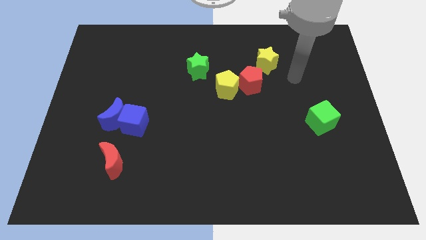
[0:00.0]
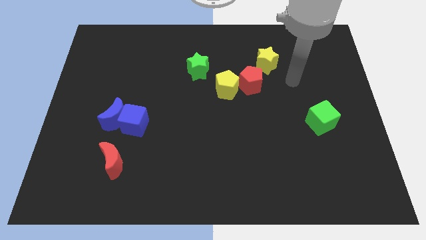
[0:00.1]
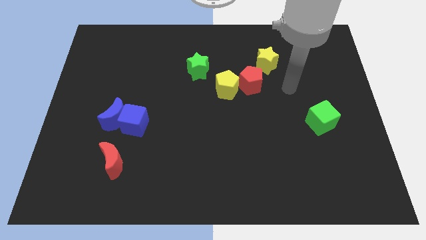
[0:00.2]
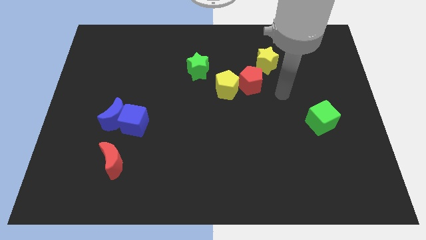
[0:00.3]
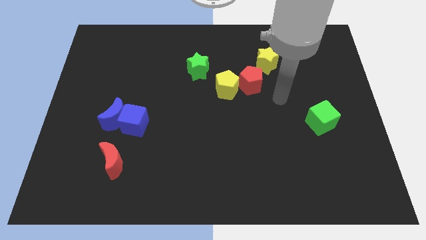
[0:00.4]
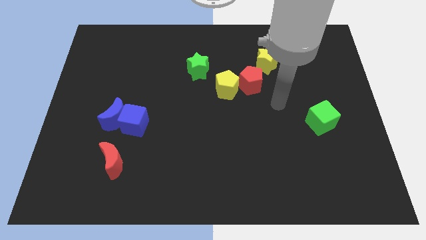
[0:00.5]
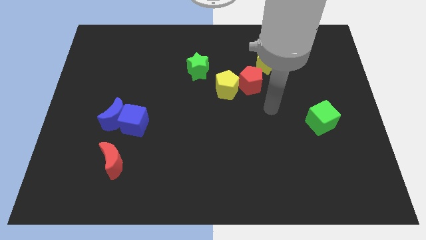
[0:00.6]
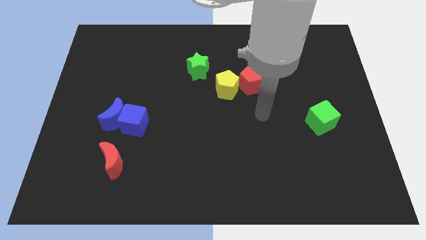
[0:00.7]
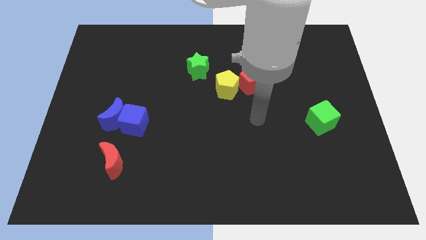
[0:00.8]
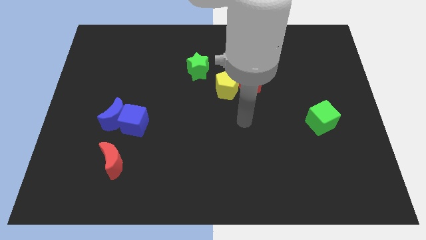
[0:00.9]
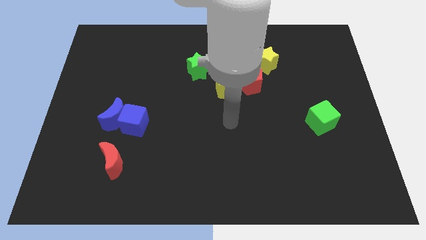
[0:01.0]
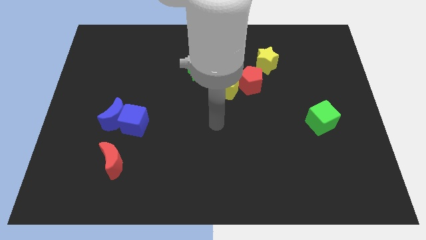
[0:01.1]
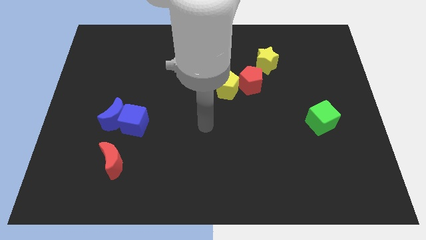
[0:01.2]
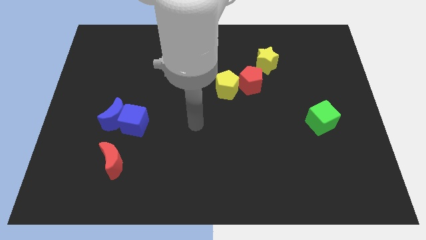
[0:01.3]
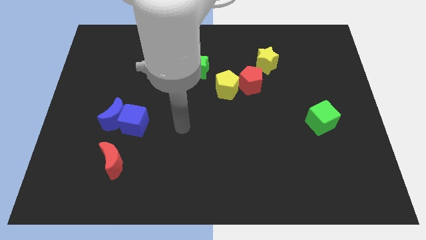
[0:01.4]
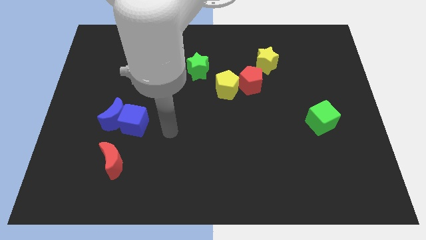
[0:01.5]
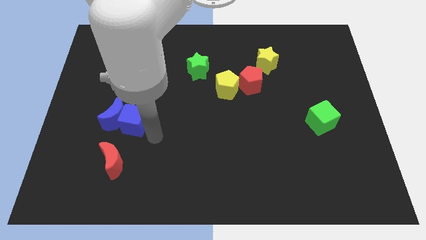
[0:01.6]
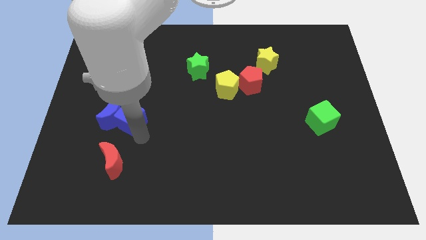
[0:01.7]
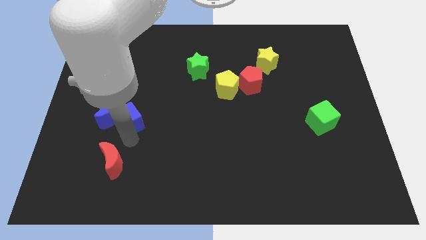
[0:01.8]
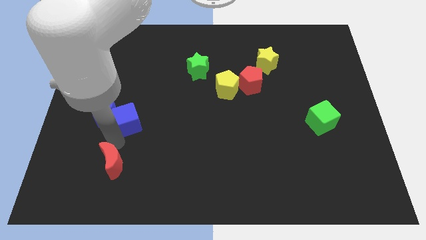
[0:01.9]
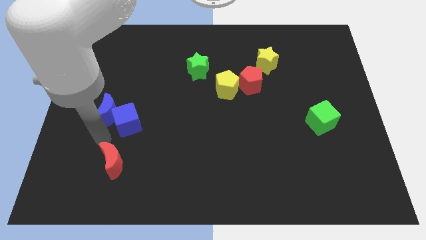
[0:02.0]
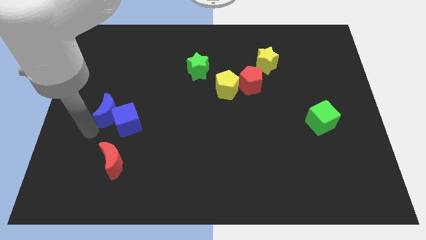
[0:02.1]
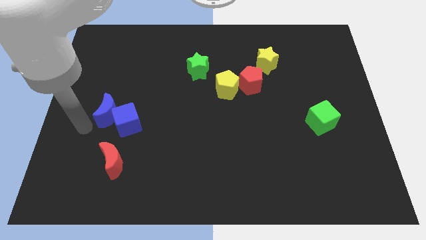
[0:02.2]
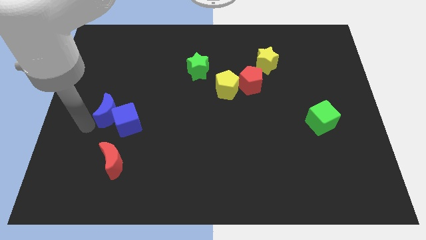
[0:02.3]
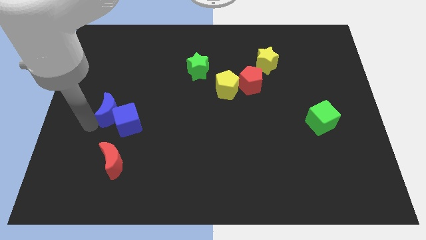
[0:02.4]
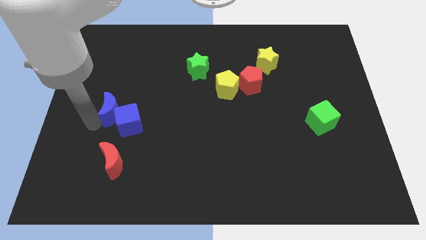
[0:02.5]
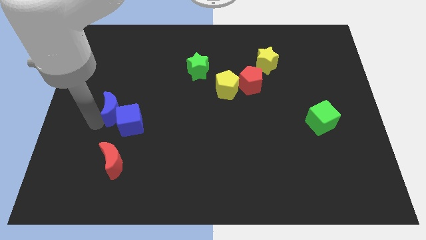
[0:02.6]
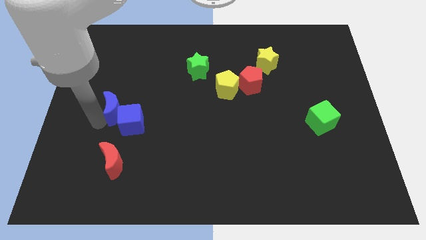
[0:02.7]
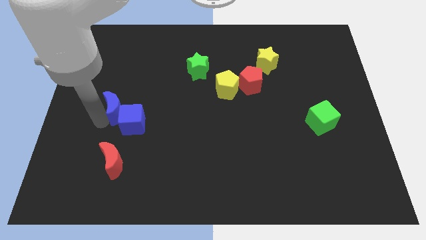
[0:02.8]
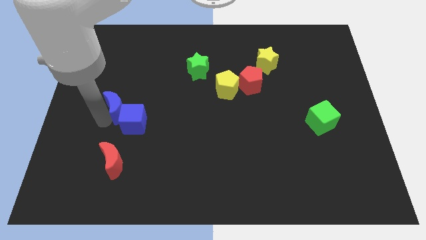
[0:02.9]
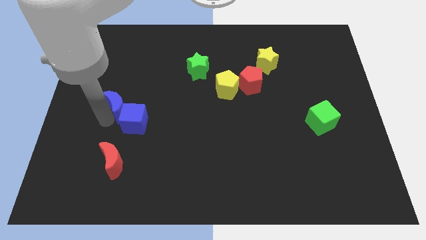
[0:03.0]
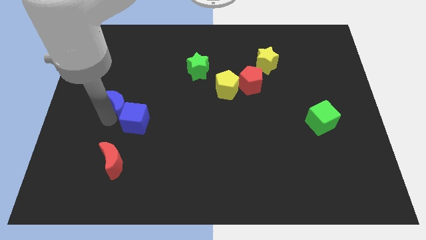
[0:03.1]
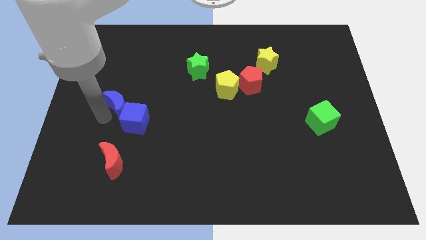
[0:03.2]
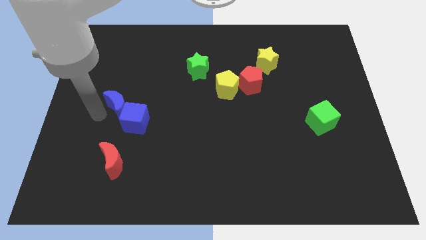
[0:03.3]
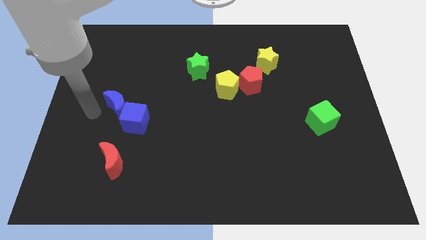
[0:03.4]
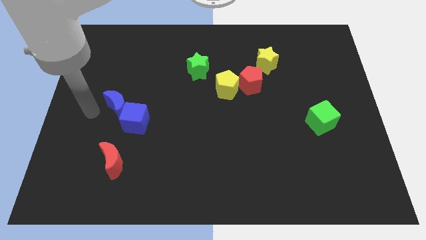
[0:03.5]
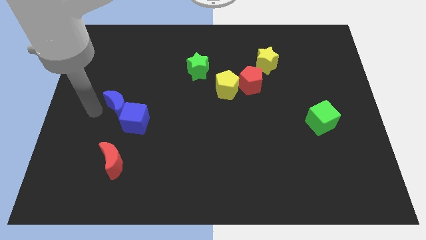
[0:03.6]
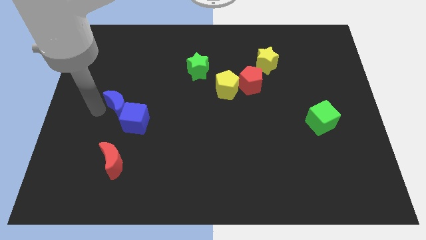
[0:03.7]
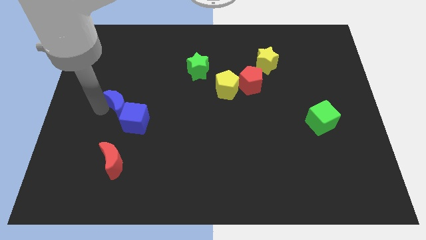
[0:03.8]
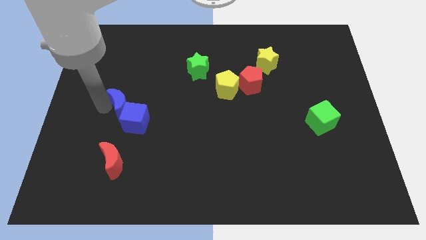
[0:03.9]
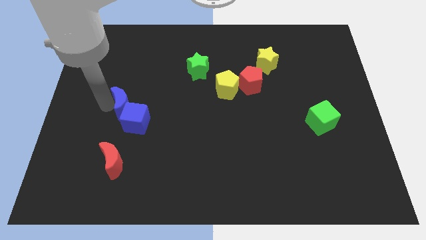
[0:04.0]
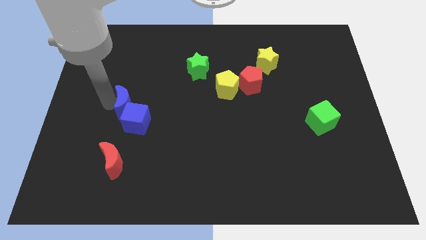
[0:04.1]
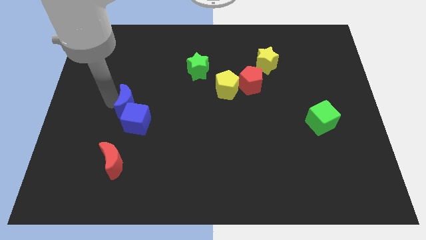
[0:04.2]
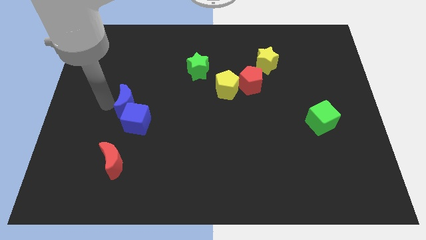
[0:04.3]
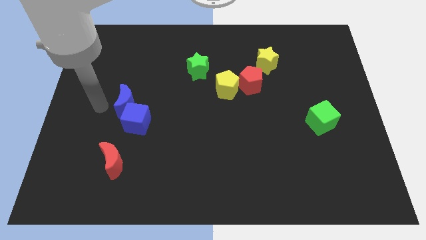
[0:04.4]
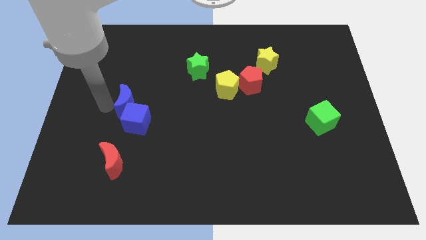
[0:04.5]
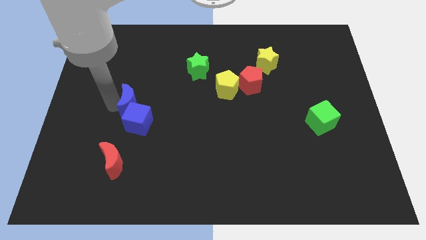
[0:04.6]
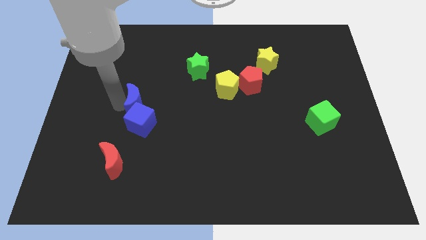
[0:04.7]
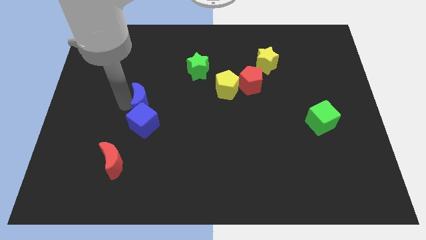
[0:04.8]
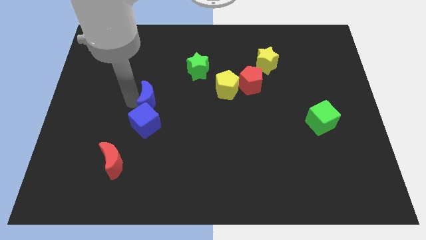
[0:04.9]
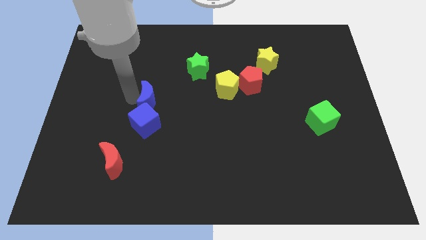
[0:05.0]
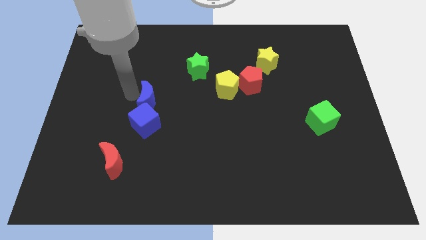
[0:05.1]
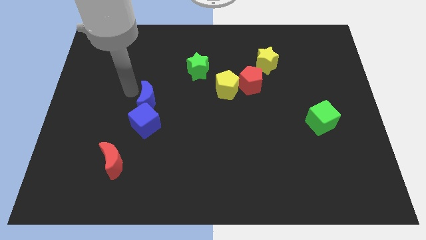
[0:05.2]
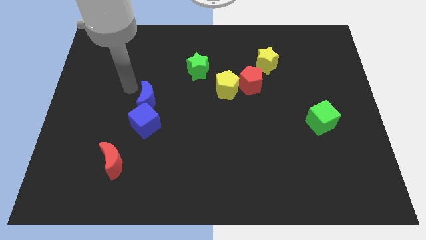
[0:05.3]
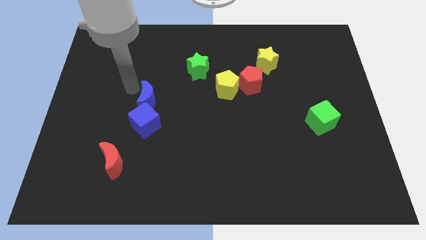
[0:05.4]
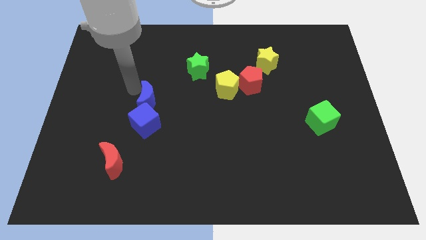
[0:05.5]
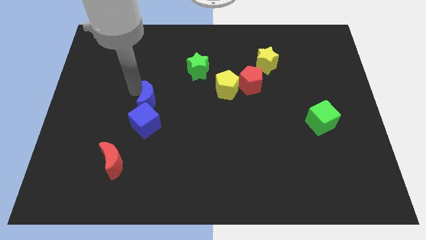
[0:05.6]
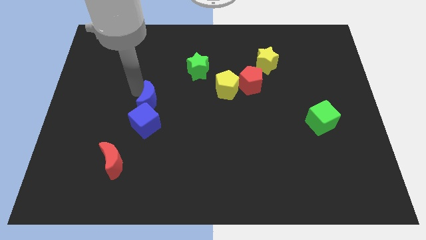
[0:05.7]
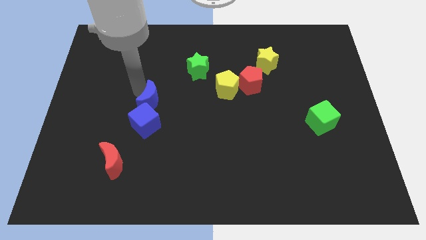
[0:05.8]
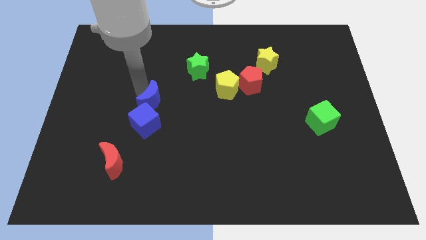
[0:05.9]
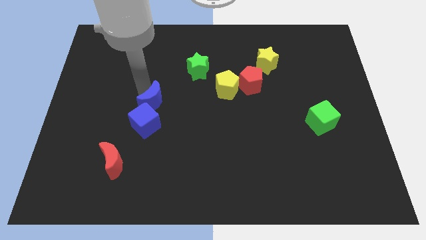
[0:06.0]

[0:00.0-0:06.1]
slide the blue moon to the right a little

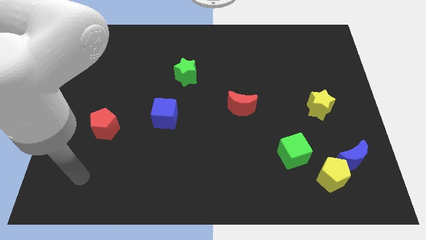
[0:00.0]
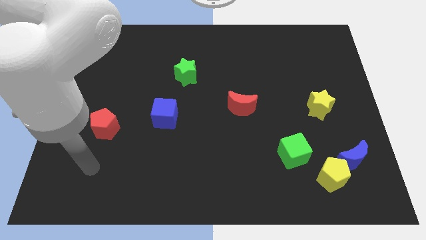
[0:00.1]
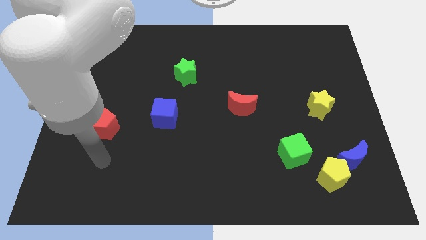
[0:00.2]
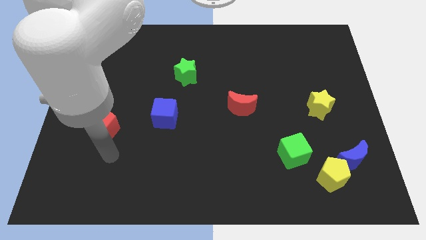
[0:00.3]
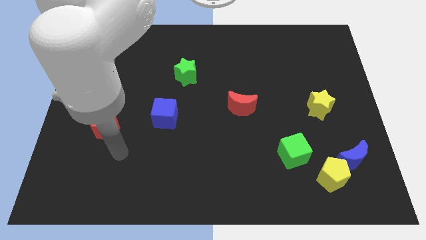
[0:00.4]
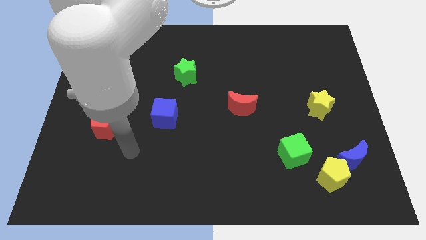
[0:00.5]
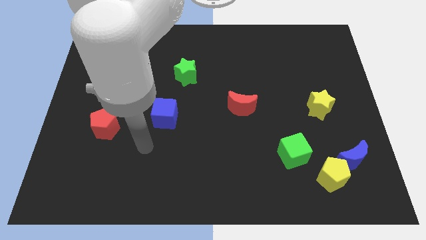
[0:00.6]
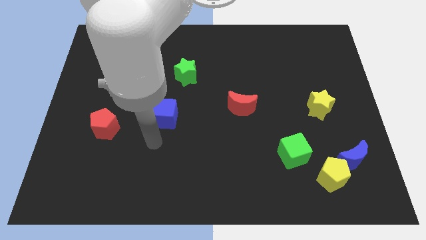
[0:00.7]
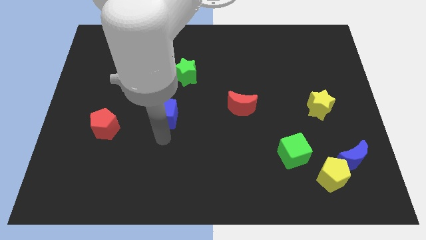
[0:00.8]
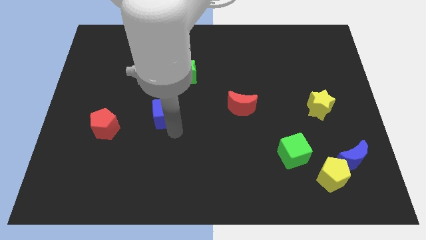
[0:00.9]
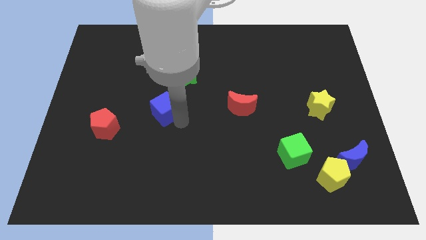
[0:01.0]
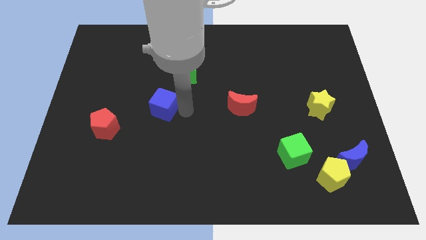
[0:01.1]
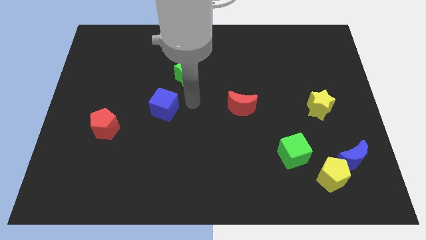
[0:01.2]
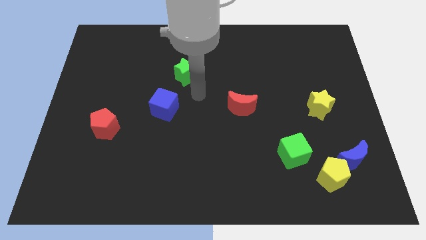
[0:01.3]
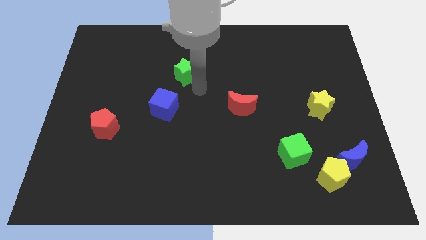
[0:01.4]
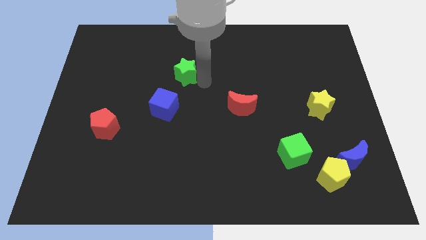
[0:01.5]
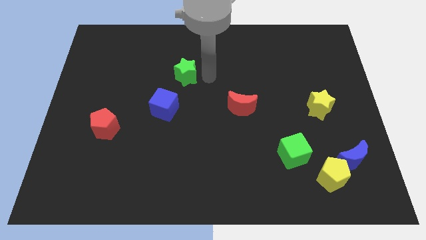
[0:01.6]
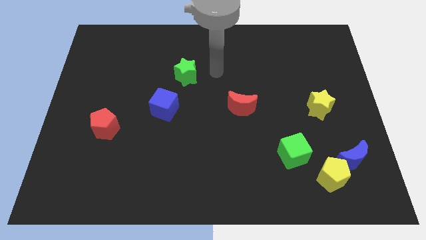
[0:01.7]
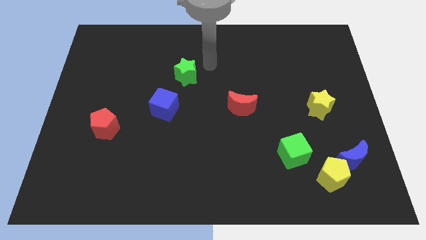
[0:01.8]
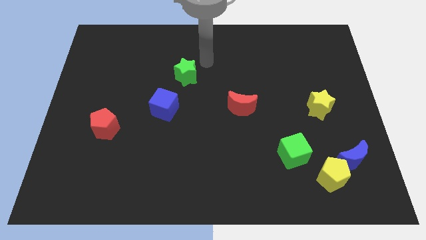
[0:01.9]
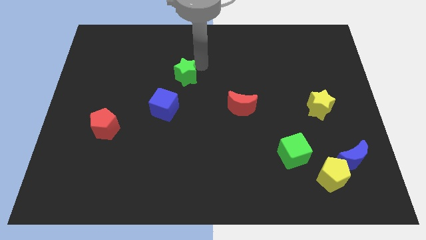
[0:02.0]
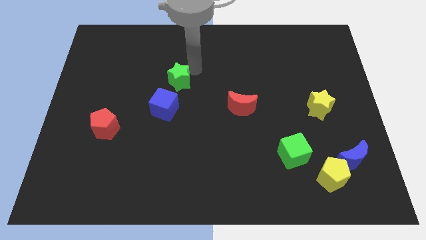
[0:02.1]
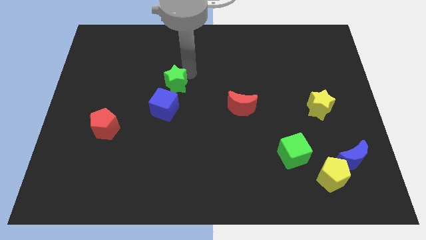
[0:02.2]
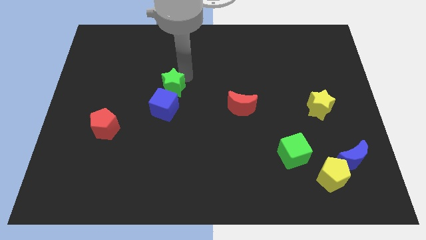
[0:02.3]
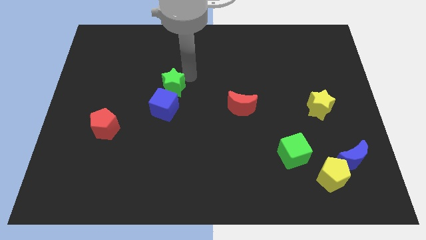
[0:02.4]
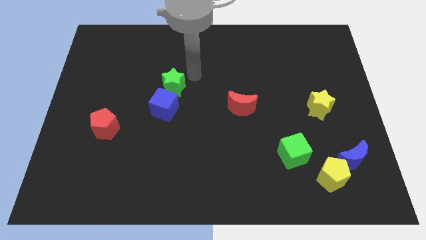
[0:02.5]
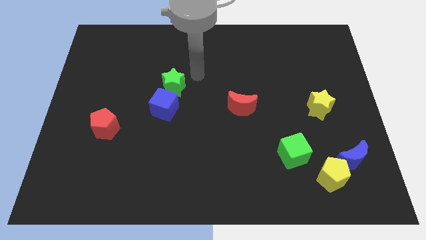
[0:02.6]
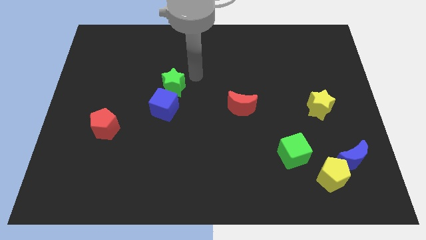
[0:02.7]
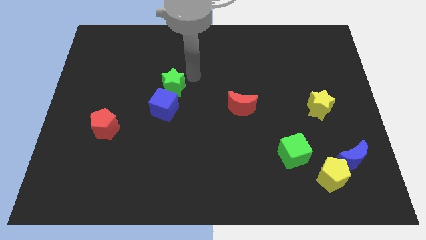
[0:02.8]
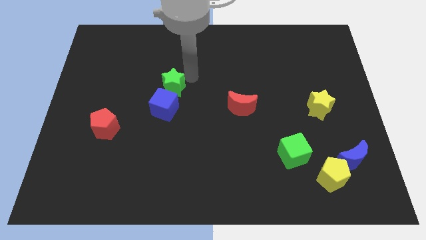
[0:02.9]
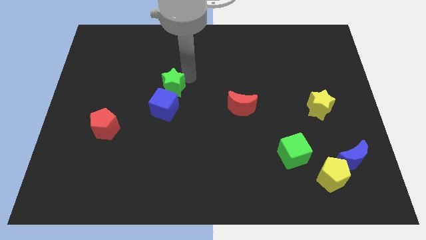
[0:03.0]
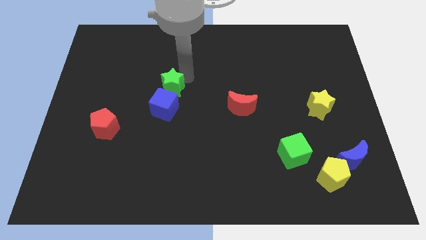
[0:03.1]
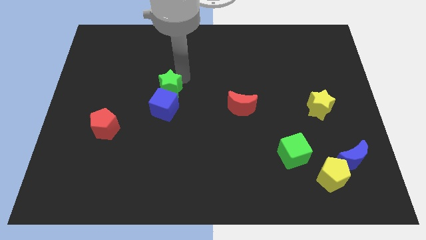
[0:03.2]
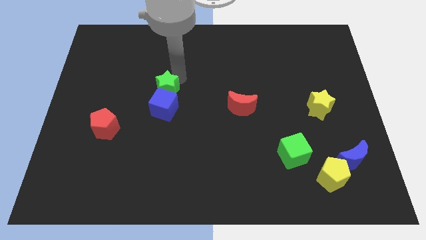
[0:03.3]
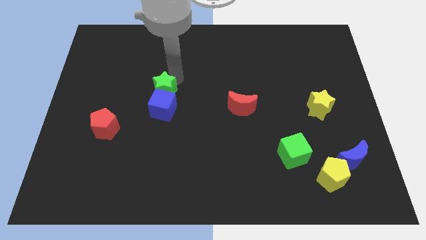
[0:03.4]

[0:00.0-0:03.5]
push the green star somewhat diagonally downwards and to the left
